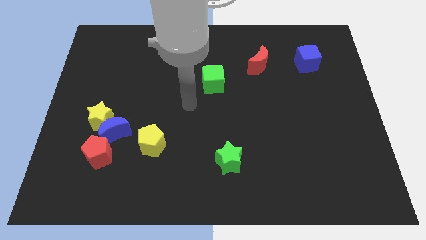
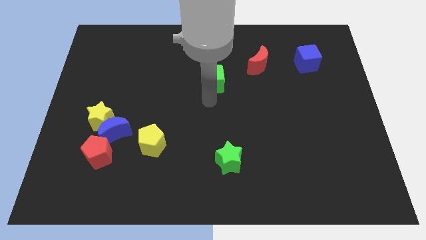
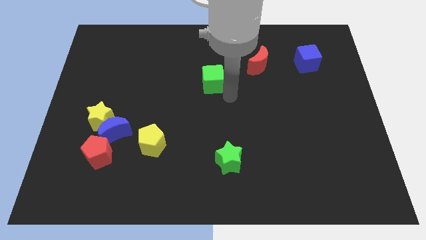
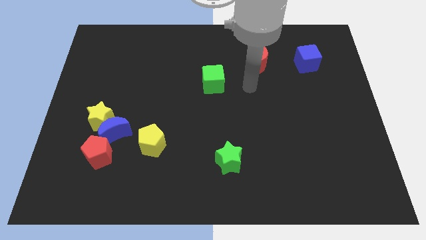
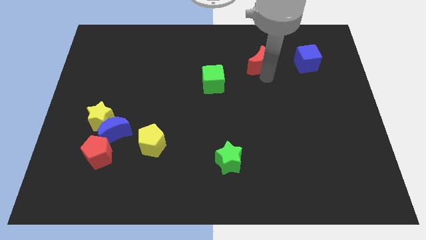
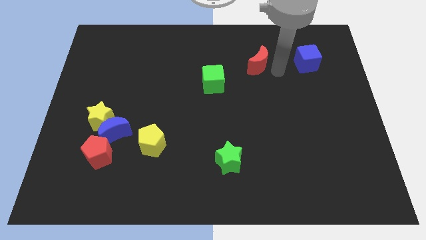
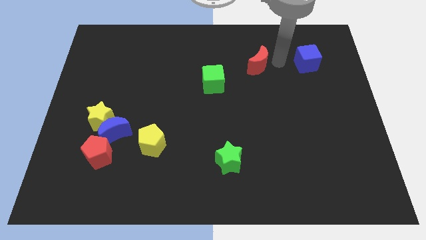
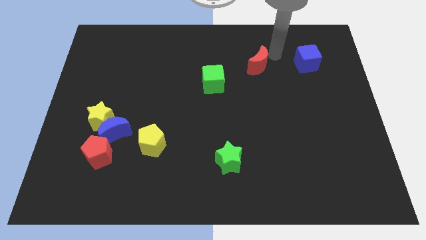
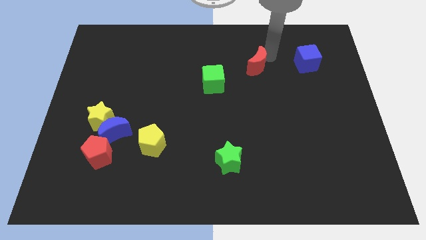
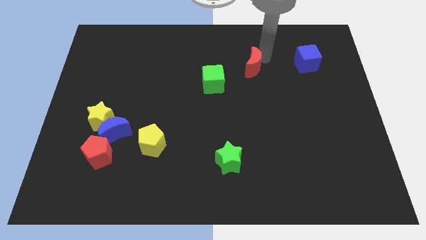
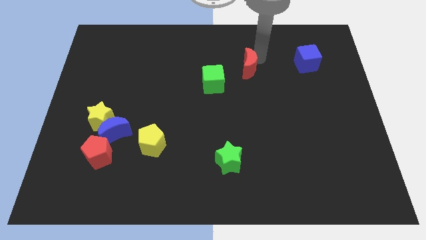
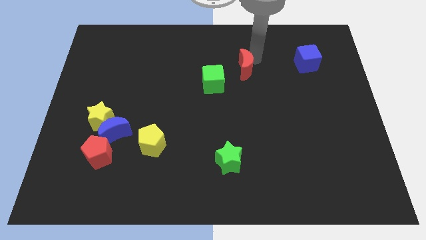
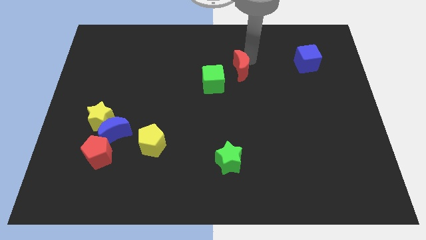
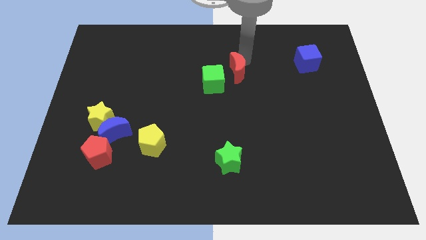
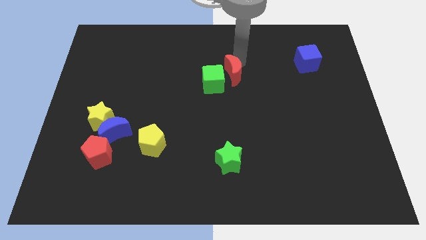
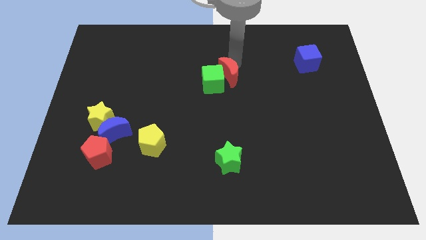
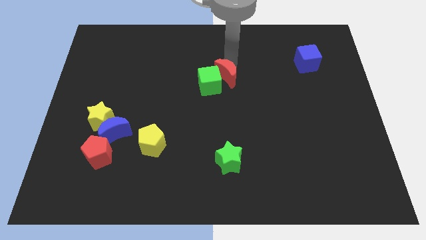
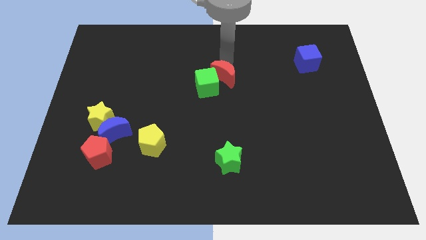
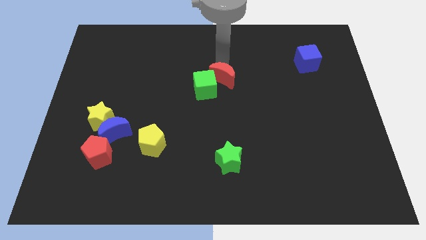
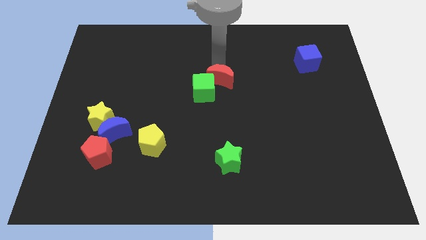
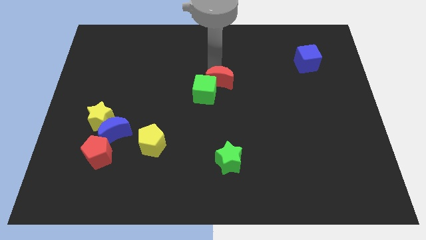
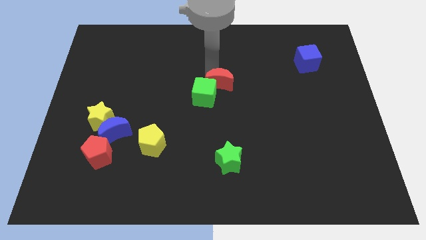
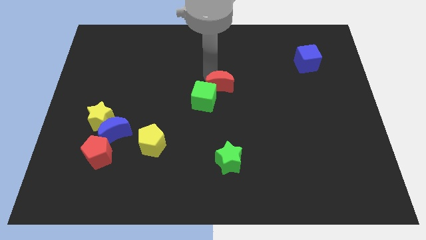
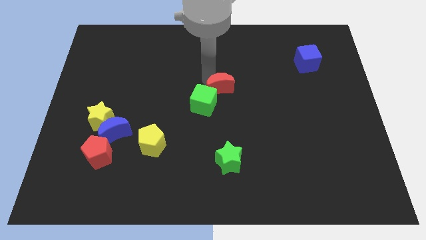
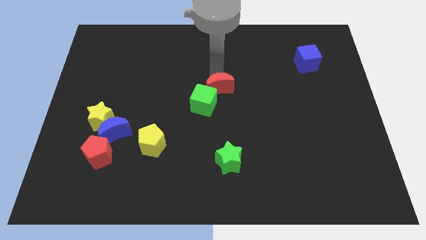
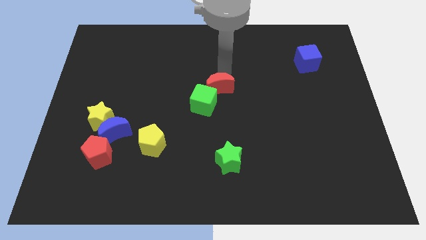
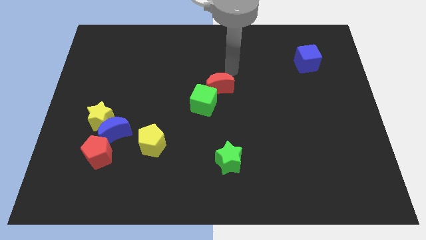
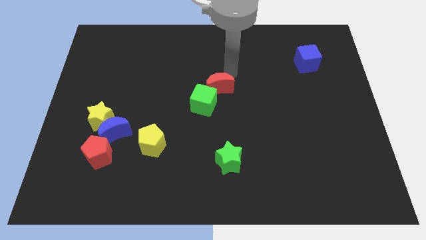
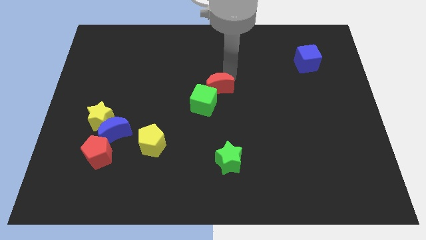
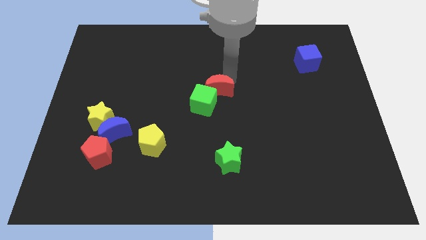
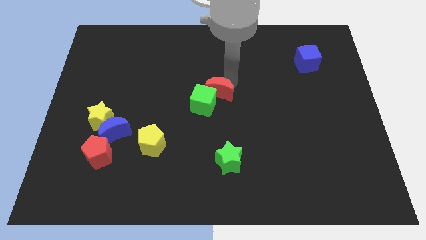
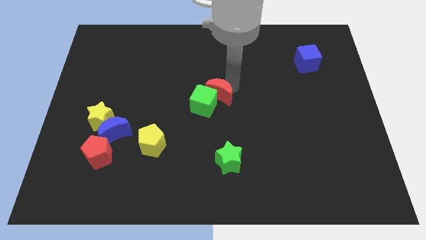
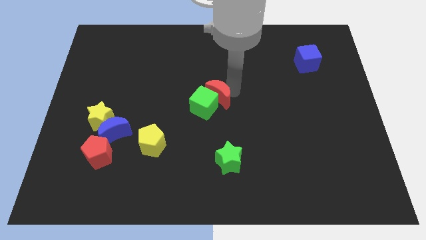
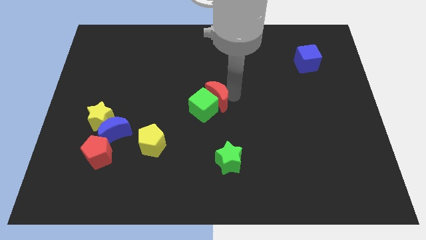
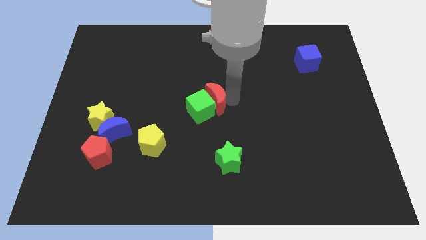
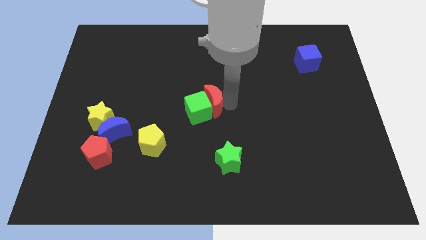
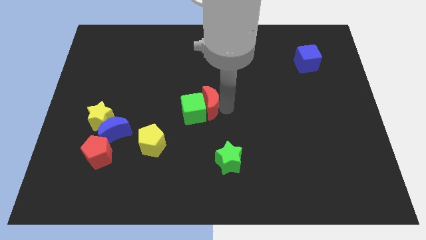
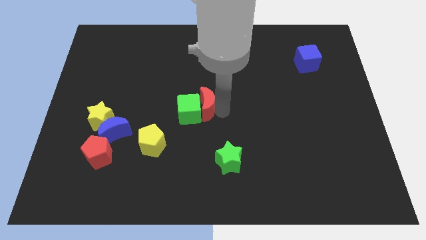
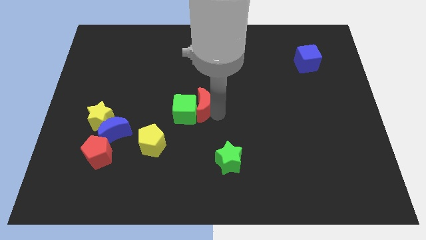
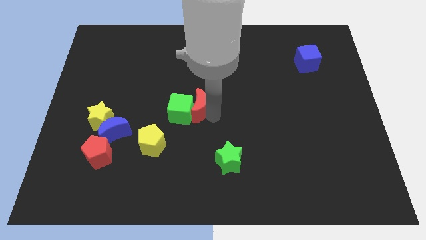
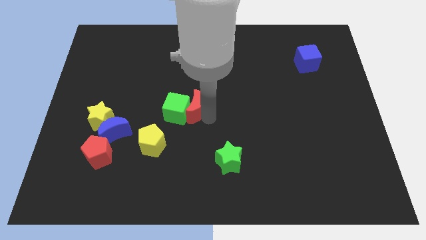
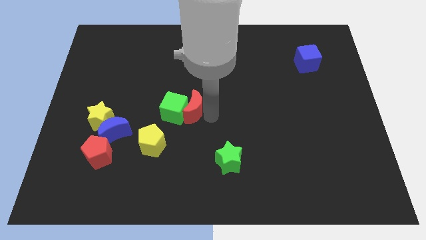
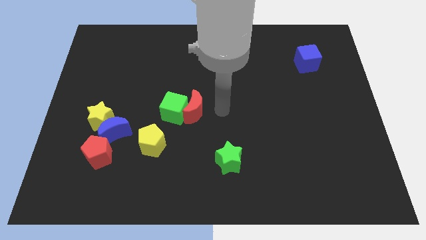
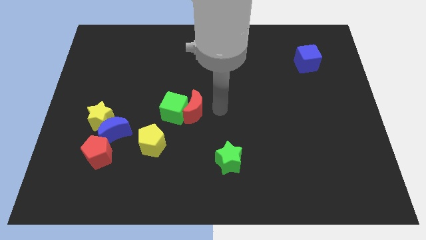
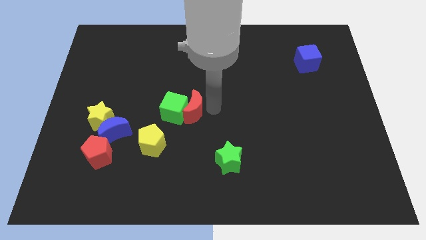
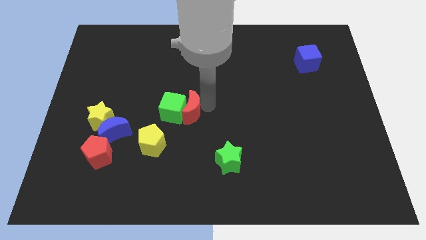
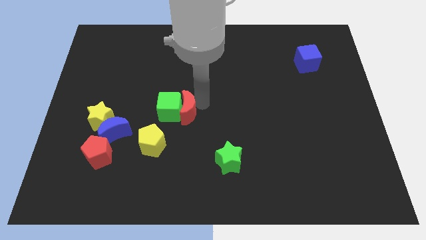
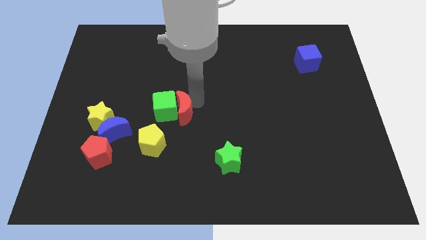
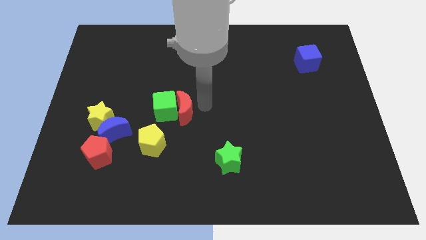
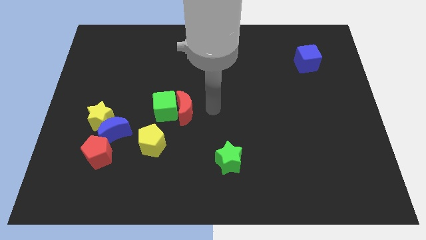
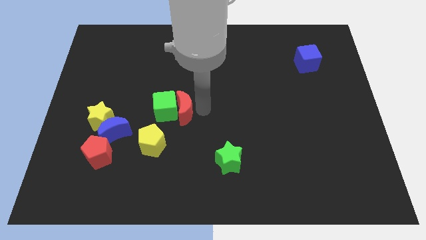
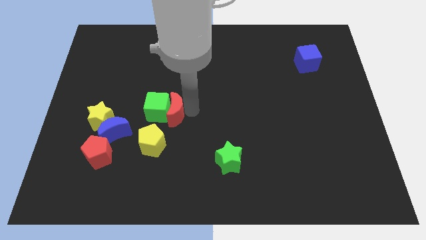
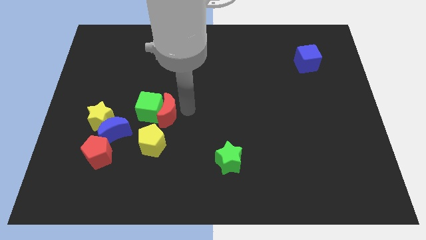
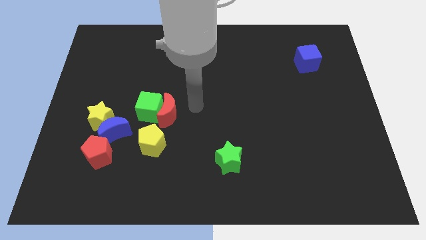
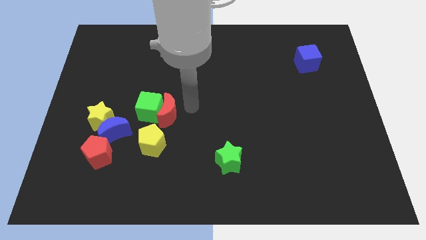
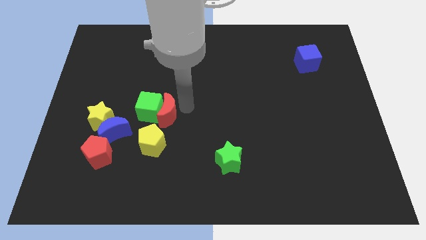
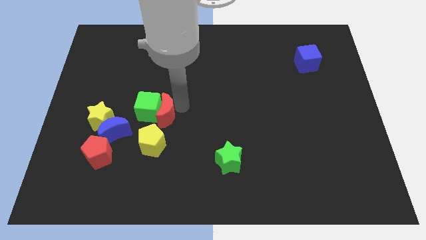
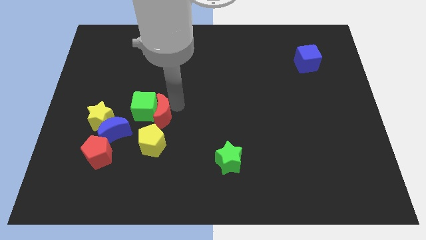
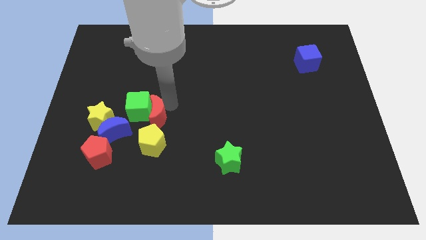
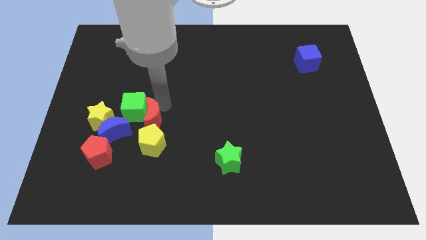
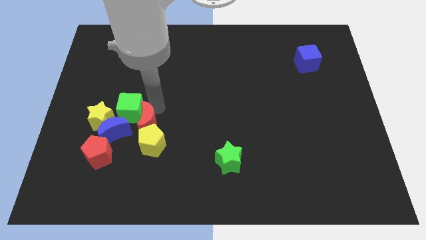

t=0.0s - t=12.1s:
move the red moon diagonally up and to the right of the red pentagon

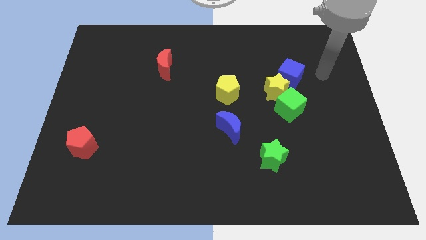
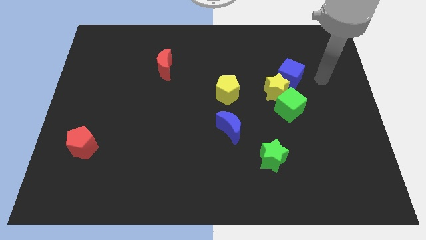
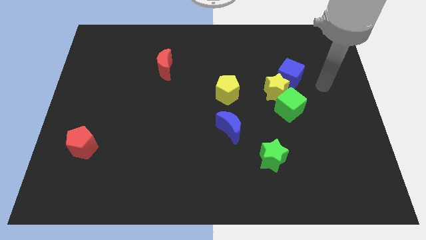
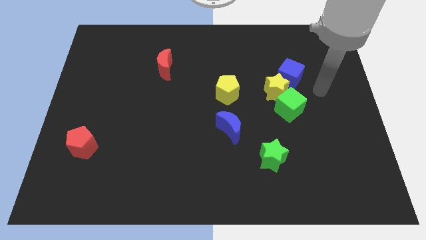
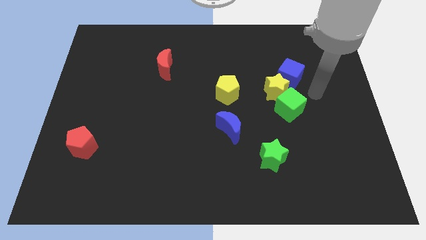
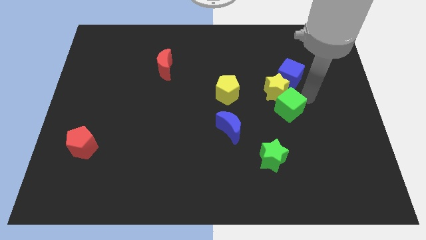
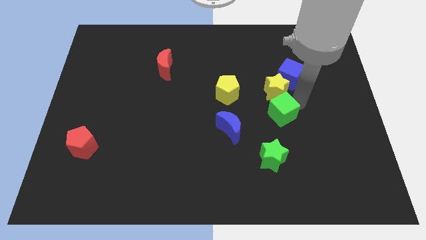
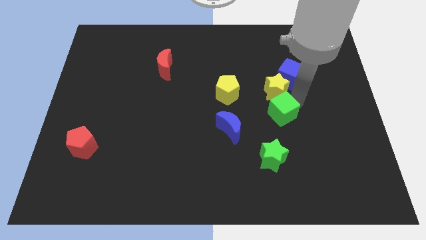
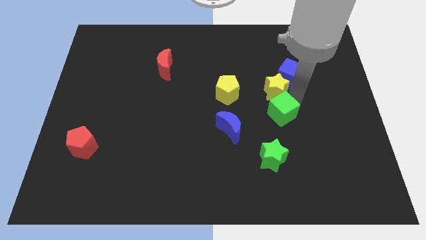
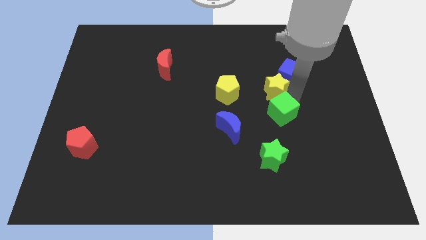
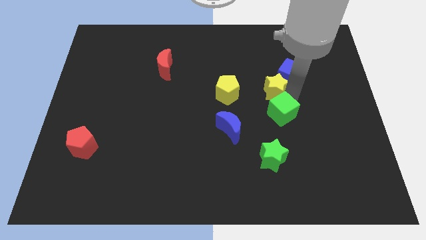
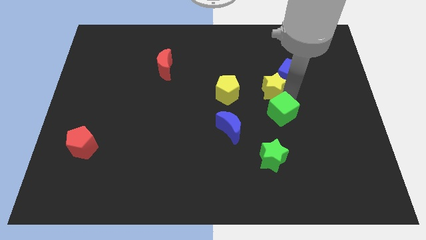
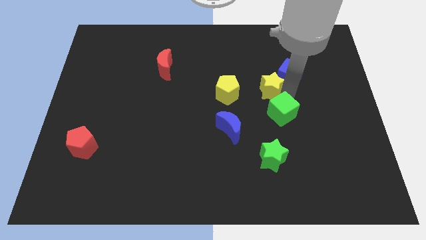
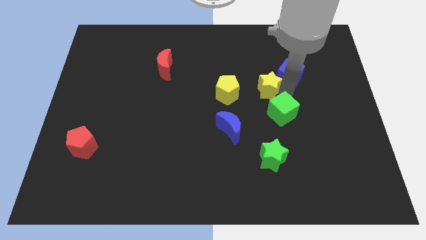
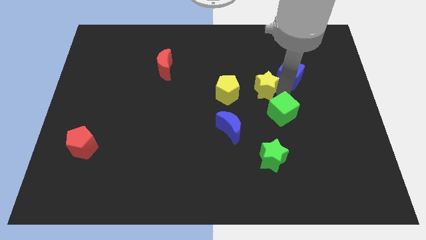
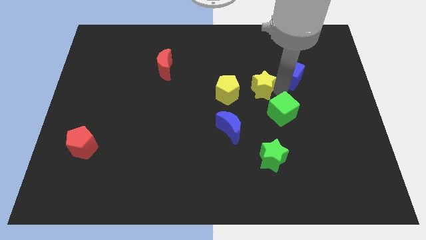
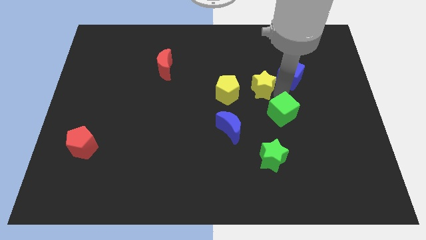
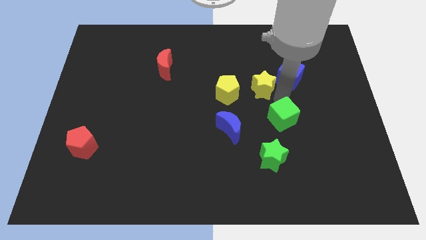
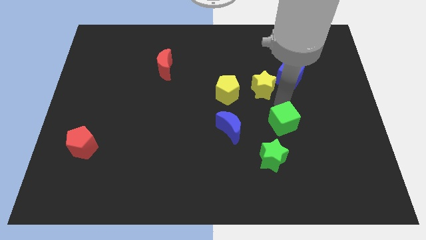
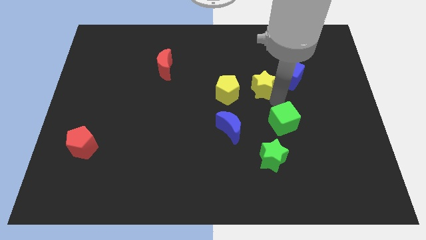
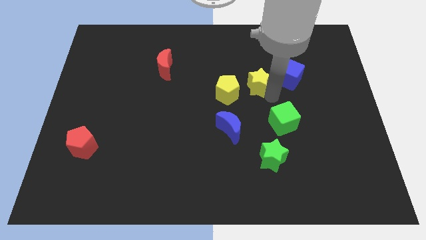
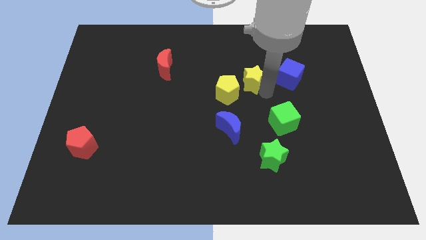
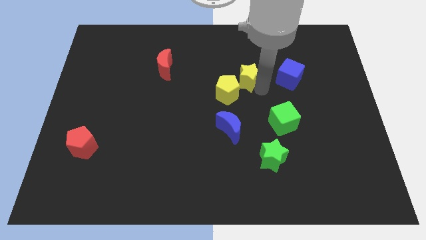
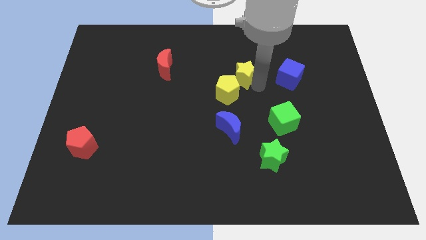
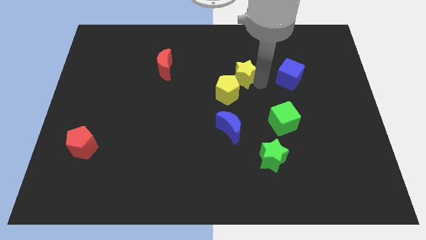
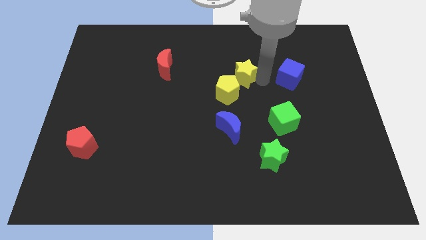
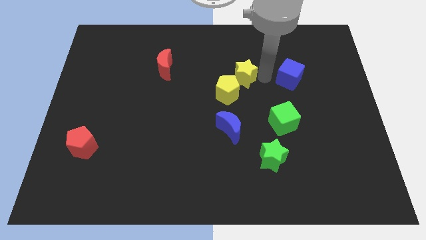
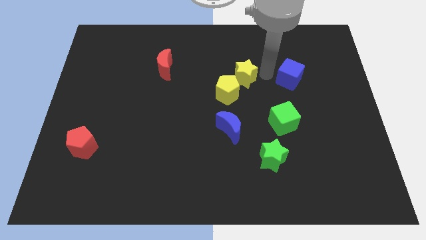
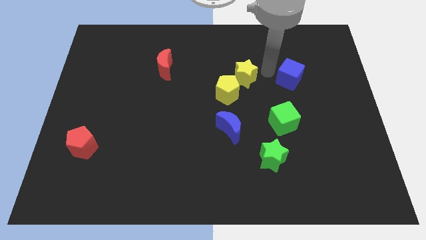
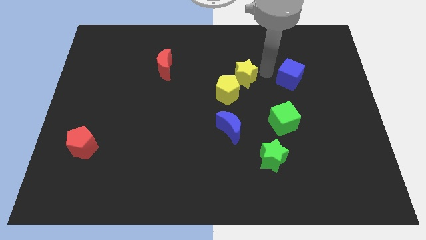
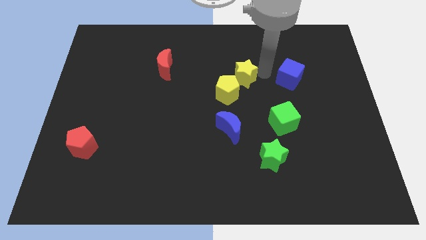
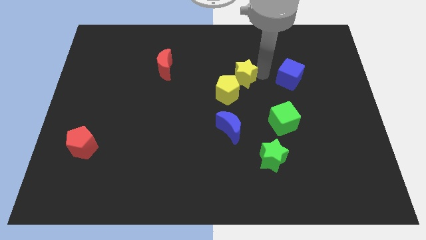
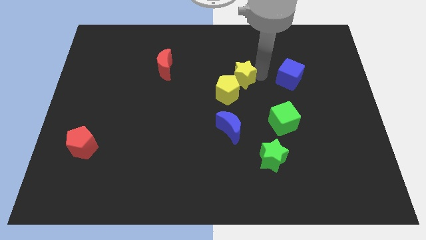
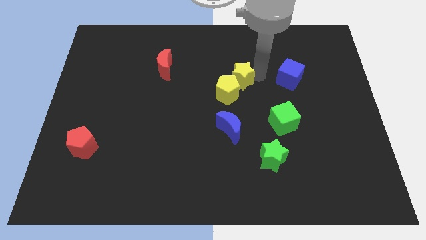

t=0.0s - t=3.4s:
slide the yellow star to the top of the blue moon
